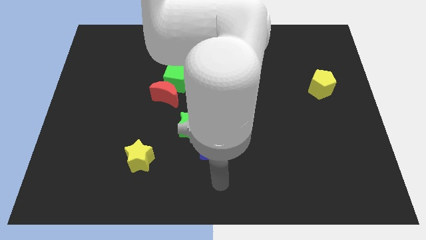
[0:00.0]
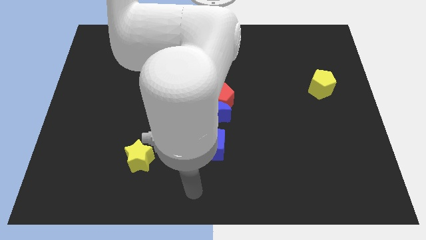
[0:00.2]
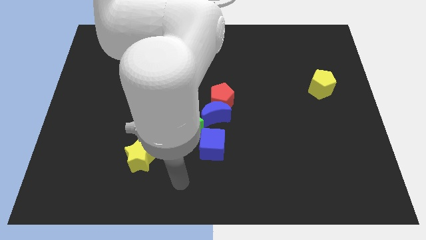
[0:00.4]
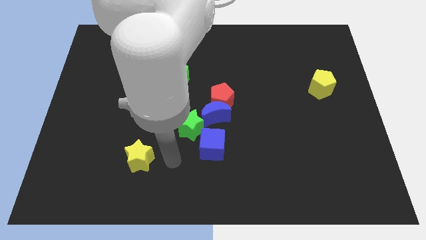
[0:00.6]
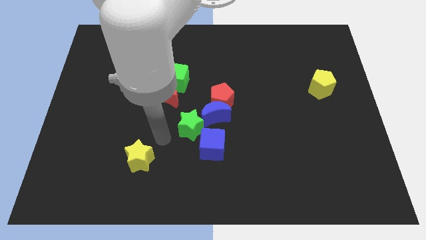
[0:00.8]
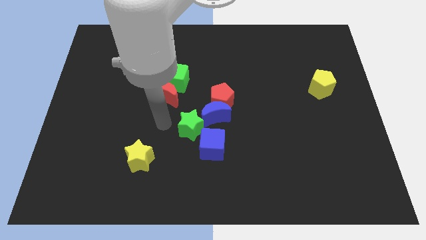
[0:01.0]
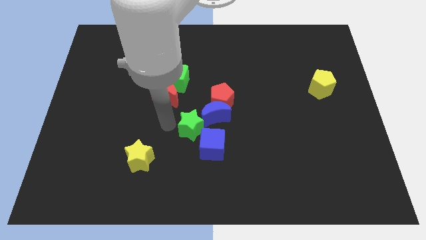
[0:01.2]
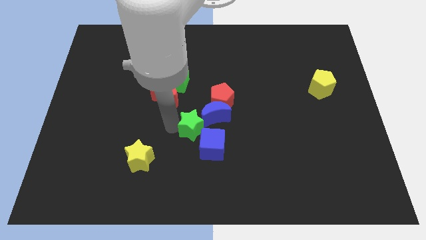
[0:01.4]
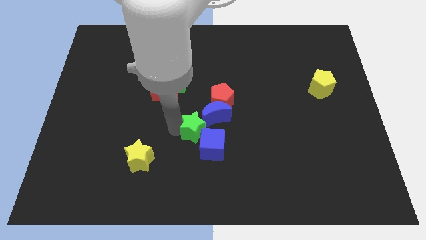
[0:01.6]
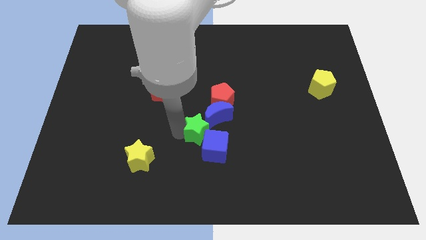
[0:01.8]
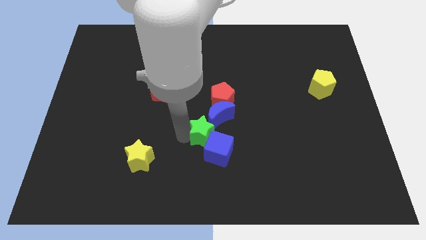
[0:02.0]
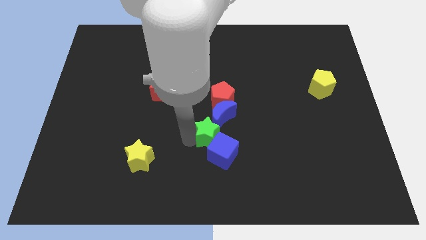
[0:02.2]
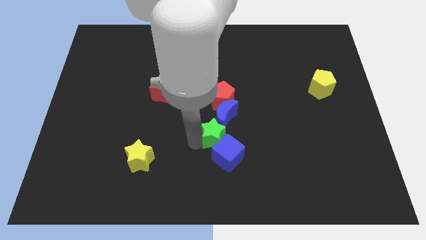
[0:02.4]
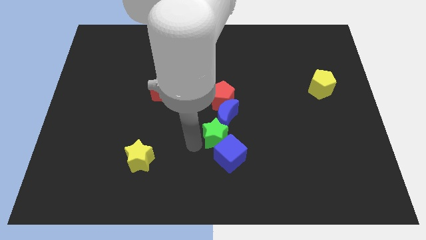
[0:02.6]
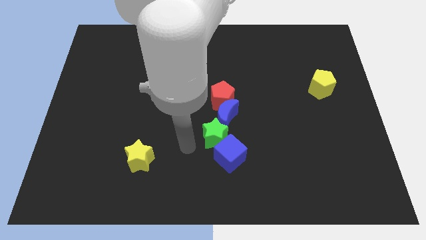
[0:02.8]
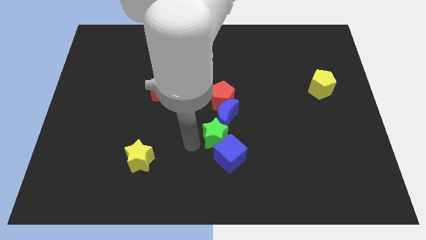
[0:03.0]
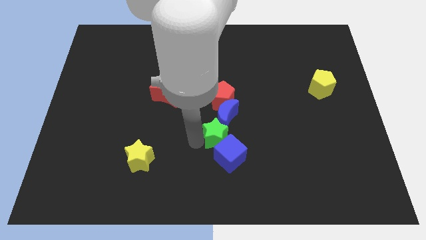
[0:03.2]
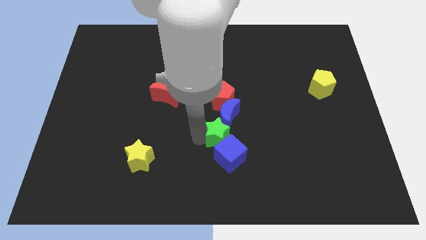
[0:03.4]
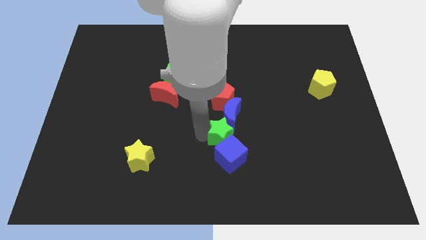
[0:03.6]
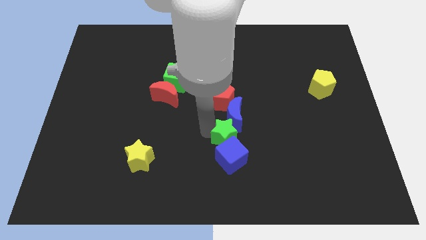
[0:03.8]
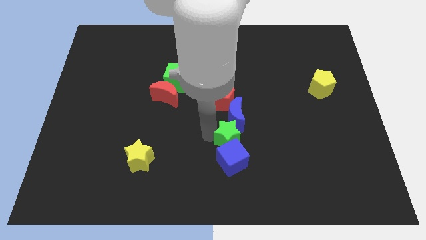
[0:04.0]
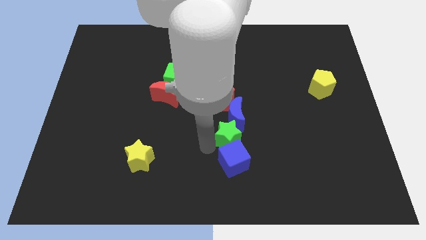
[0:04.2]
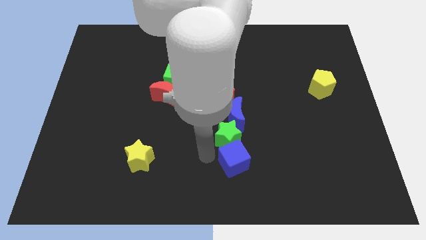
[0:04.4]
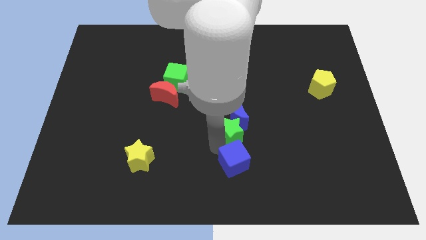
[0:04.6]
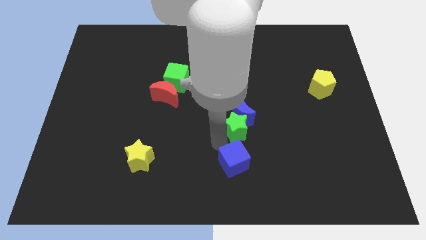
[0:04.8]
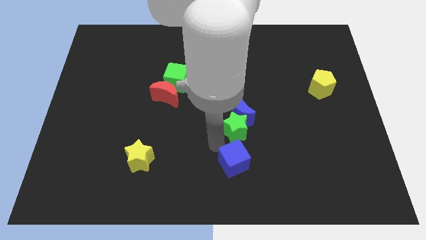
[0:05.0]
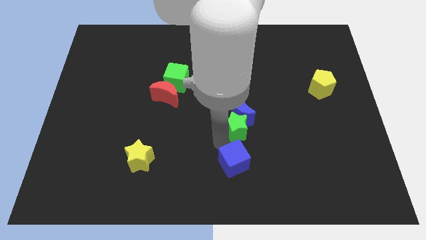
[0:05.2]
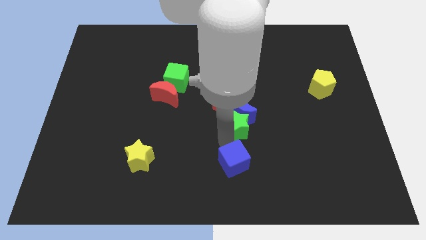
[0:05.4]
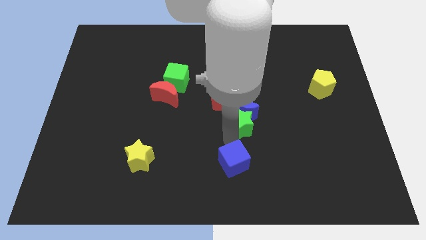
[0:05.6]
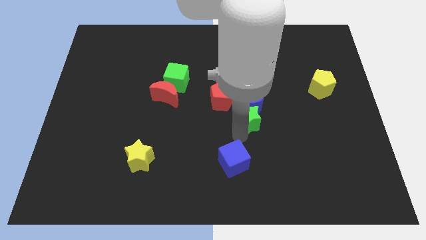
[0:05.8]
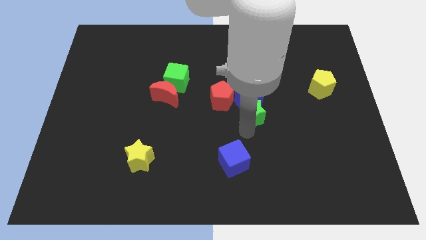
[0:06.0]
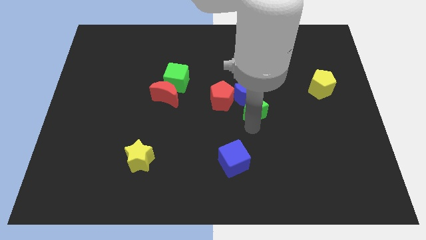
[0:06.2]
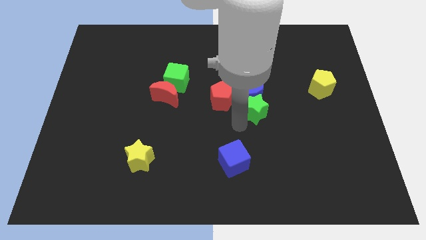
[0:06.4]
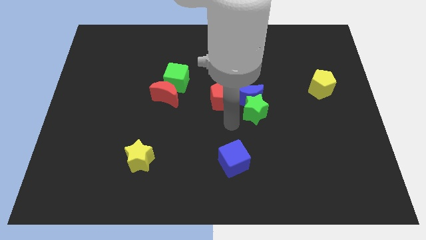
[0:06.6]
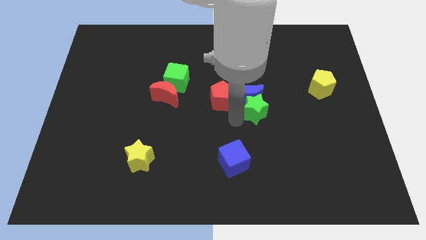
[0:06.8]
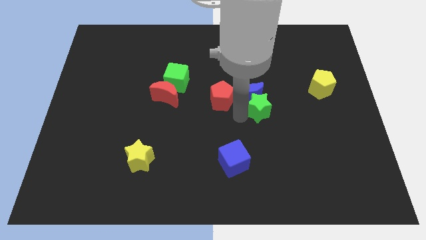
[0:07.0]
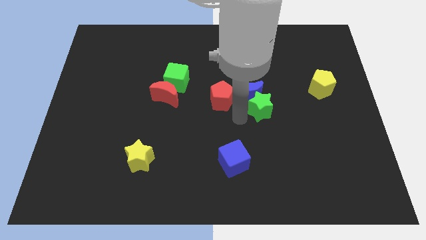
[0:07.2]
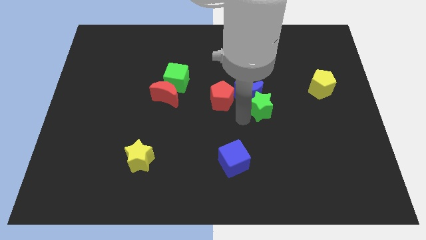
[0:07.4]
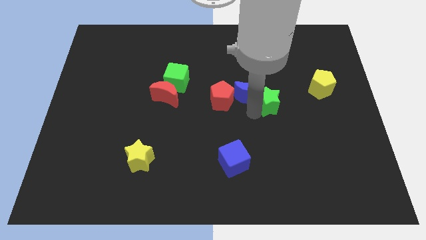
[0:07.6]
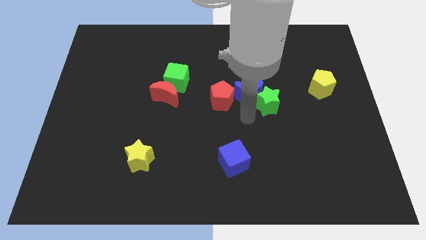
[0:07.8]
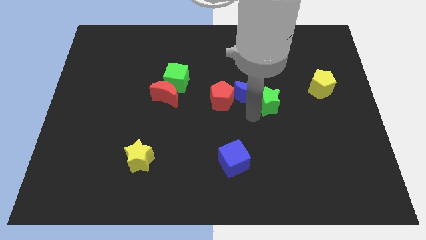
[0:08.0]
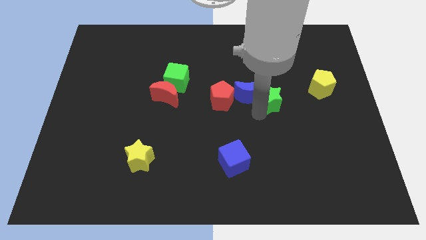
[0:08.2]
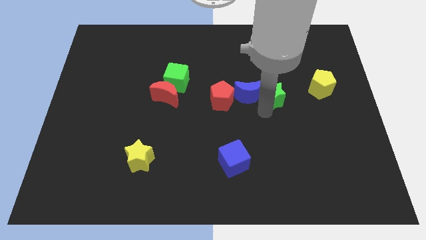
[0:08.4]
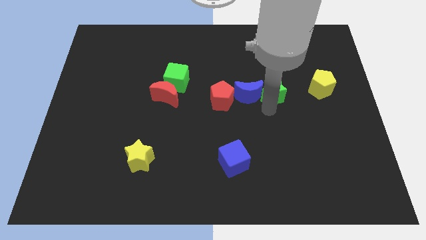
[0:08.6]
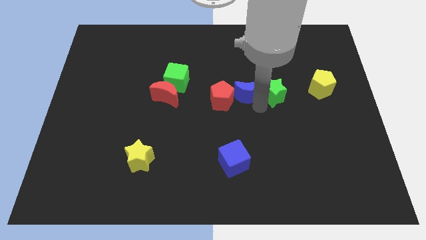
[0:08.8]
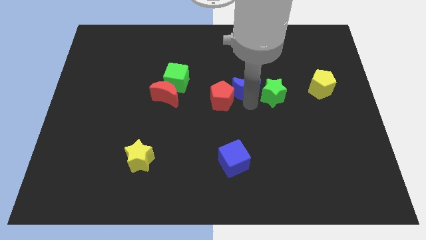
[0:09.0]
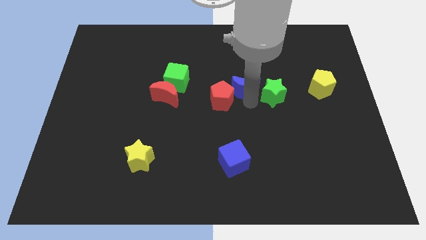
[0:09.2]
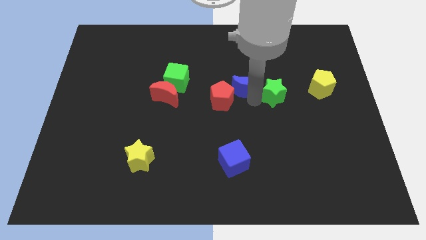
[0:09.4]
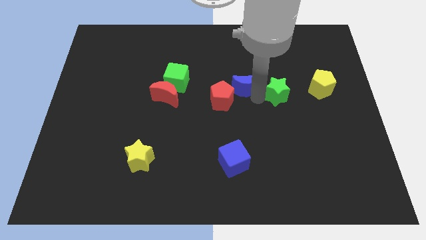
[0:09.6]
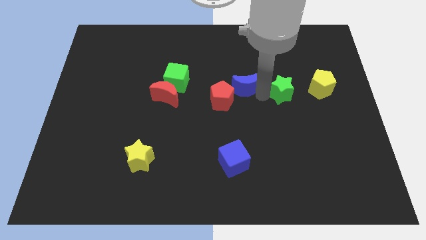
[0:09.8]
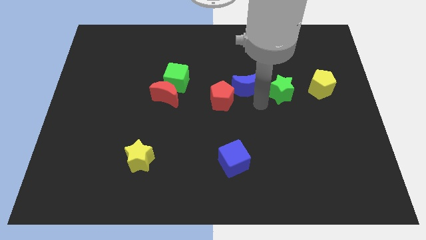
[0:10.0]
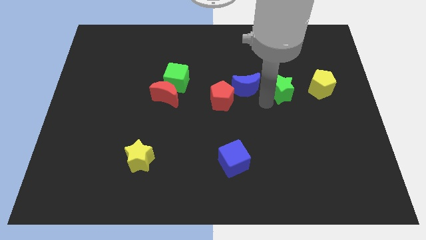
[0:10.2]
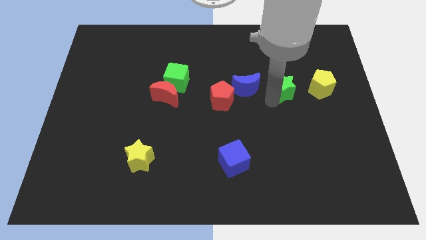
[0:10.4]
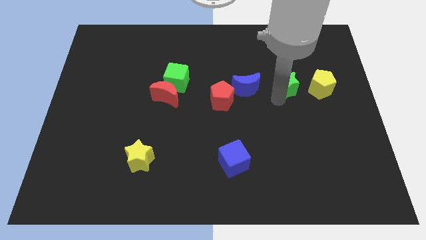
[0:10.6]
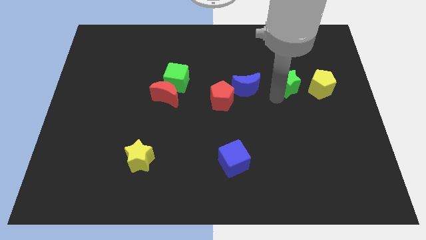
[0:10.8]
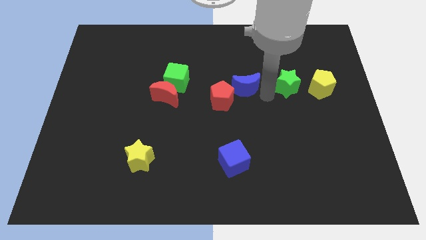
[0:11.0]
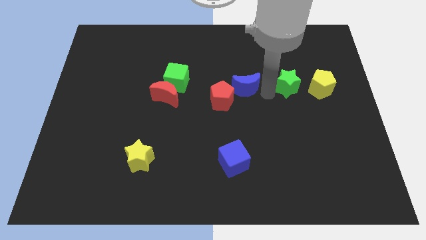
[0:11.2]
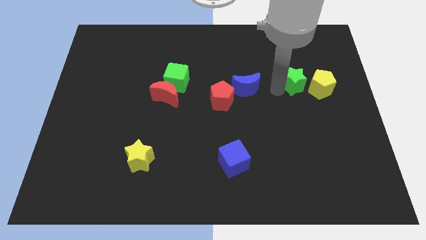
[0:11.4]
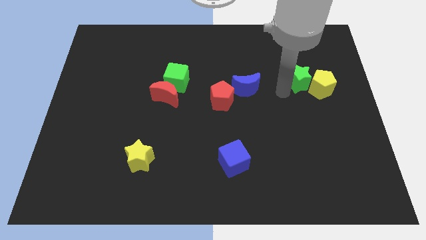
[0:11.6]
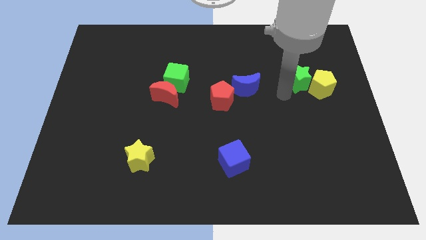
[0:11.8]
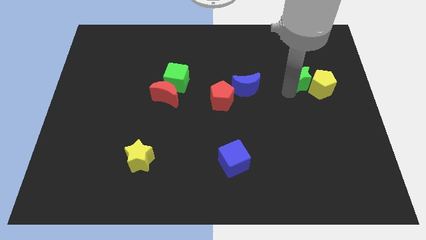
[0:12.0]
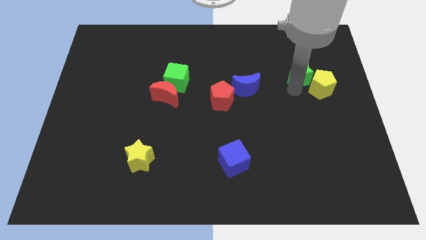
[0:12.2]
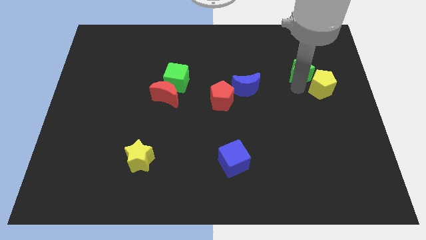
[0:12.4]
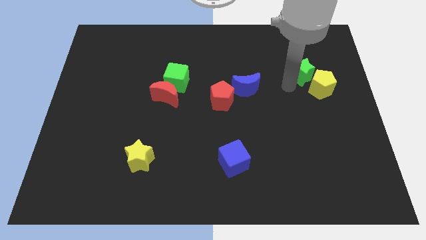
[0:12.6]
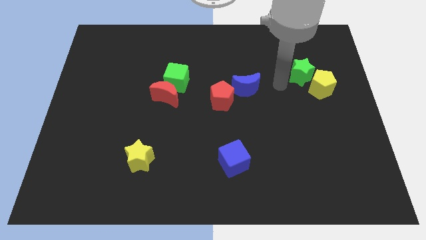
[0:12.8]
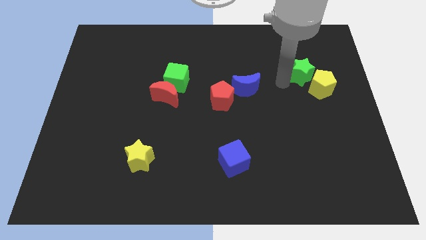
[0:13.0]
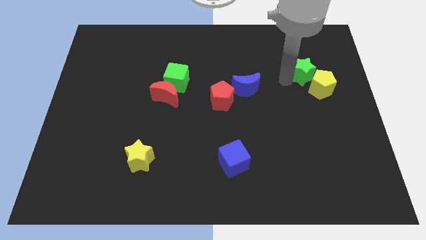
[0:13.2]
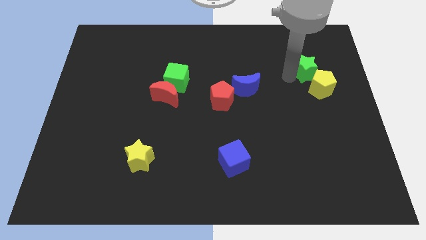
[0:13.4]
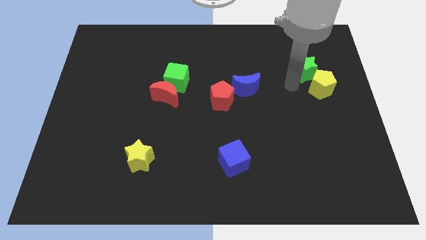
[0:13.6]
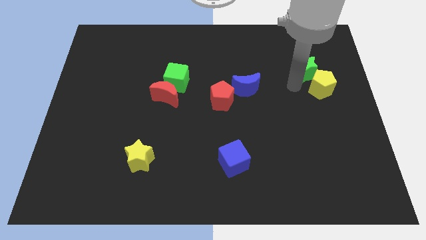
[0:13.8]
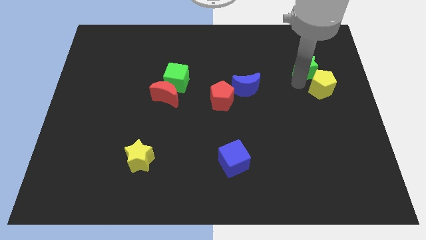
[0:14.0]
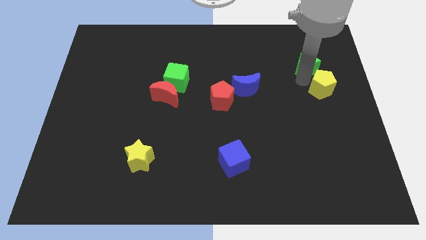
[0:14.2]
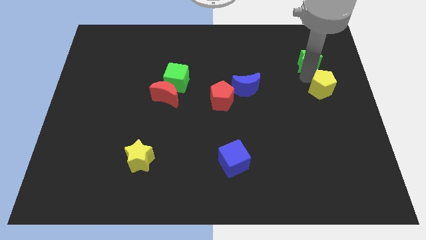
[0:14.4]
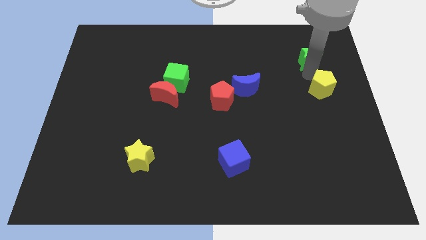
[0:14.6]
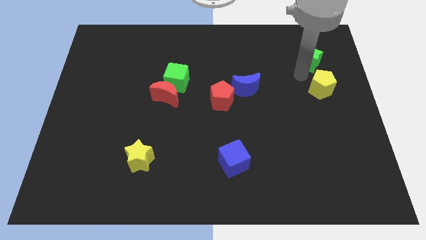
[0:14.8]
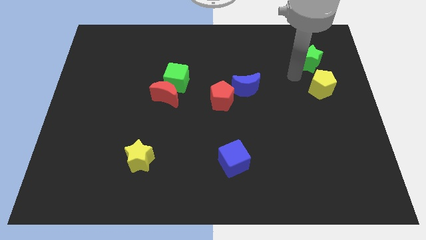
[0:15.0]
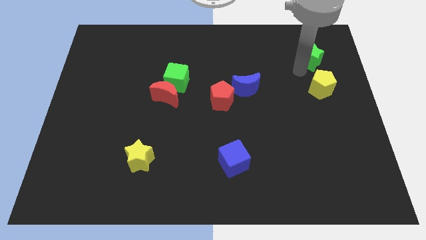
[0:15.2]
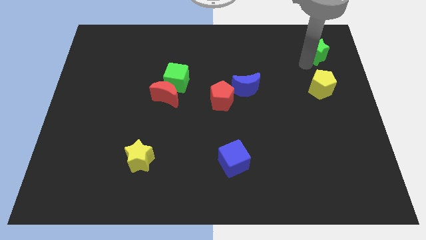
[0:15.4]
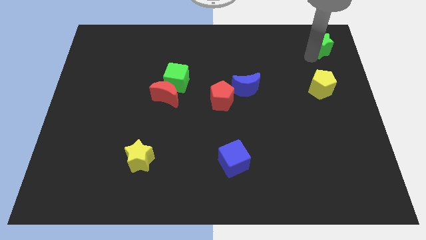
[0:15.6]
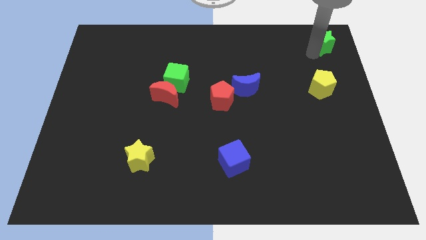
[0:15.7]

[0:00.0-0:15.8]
put the green star to the top right
